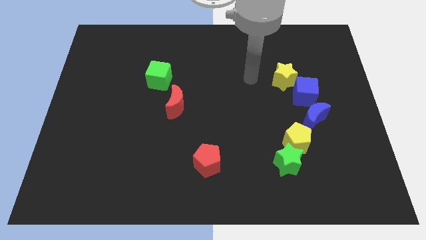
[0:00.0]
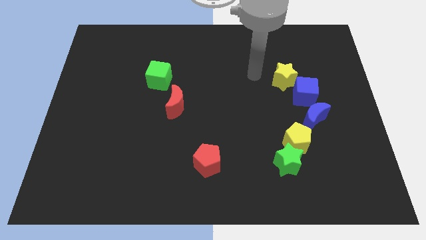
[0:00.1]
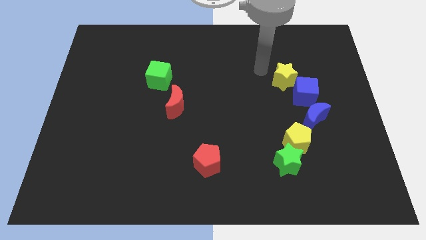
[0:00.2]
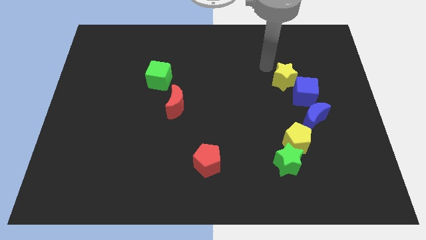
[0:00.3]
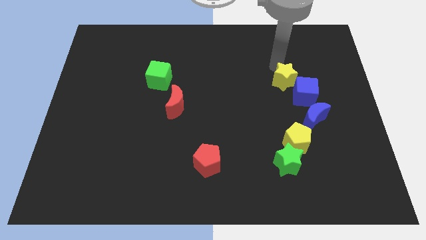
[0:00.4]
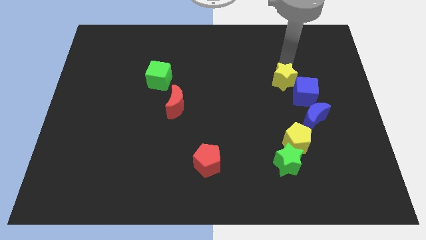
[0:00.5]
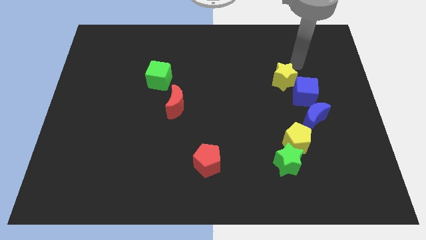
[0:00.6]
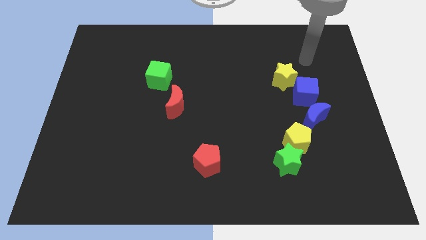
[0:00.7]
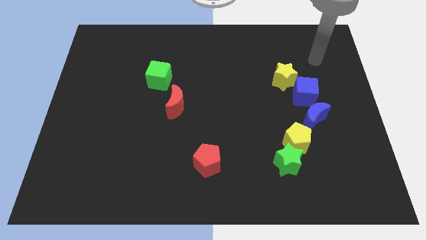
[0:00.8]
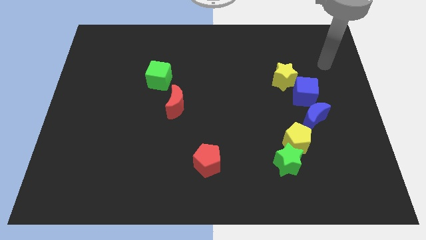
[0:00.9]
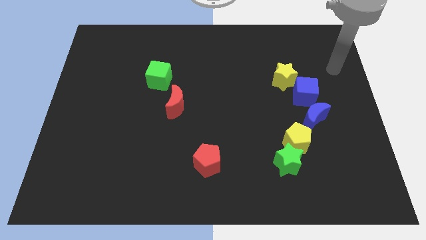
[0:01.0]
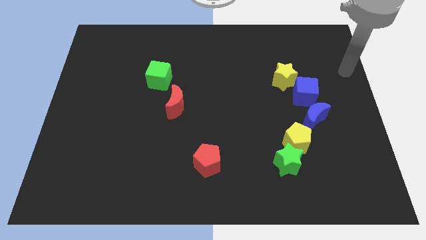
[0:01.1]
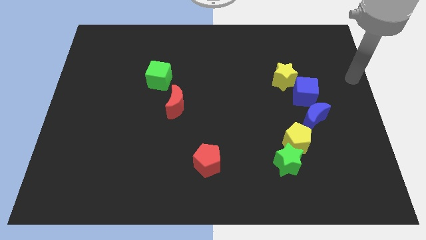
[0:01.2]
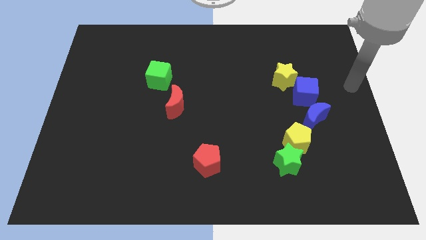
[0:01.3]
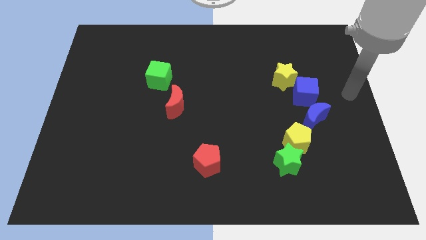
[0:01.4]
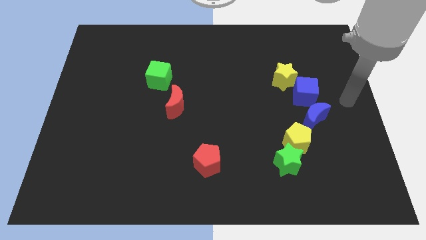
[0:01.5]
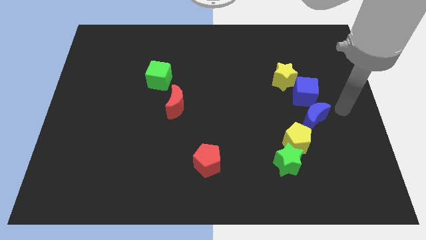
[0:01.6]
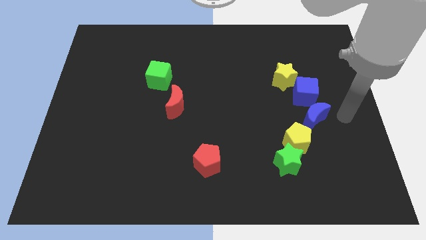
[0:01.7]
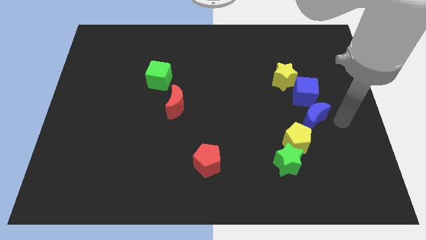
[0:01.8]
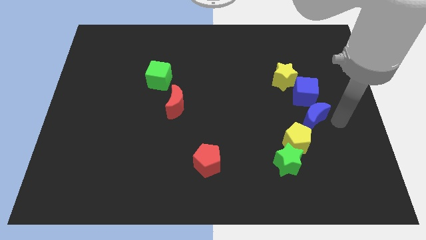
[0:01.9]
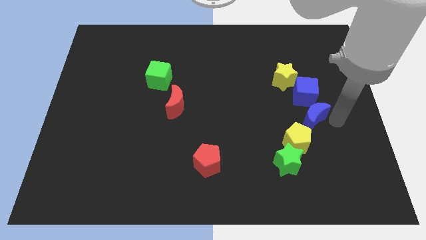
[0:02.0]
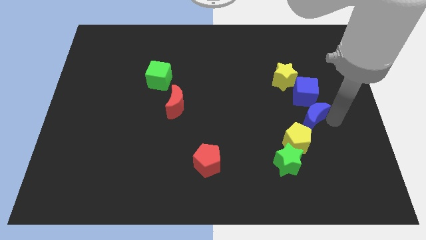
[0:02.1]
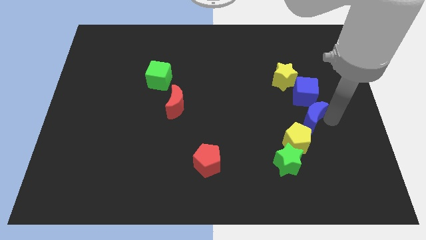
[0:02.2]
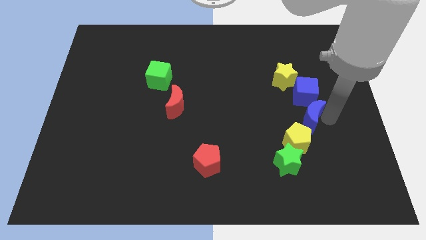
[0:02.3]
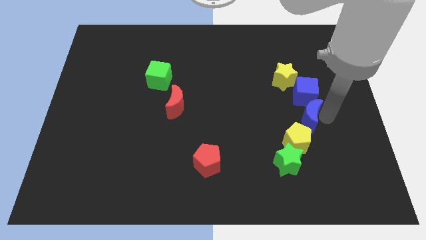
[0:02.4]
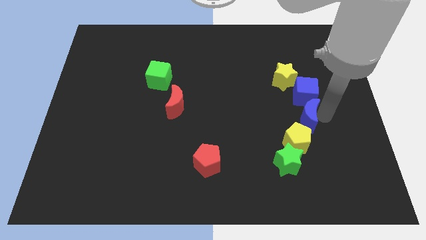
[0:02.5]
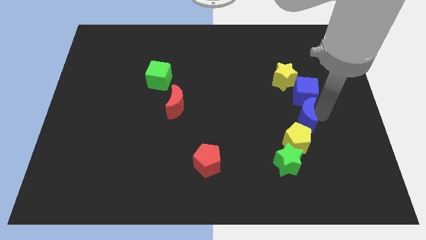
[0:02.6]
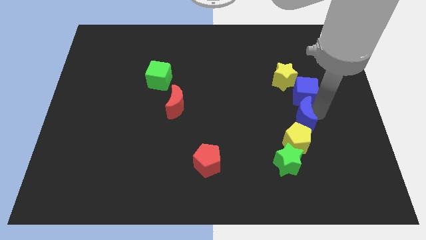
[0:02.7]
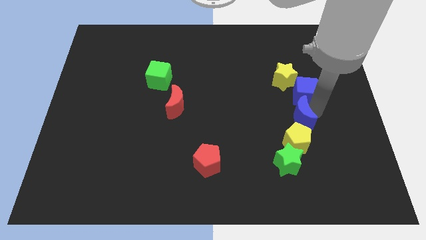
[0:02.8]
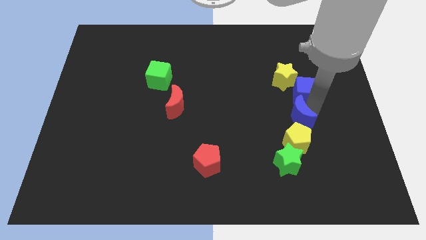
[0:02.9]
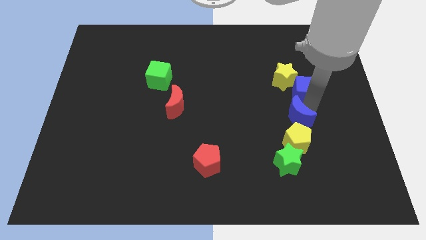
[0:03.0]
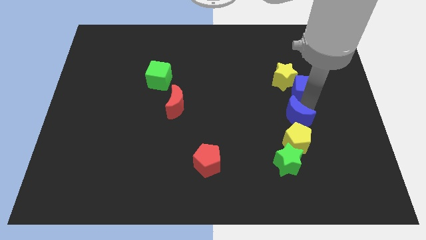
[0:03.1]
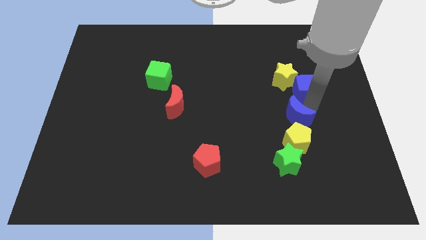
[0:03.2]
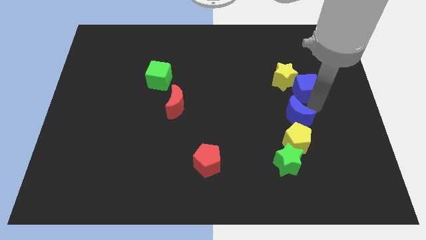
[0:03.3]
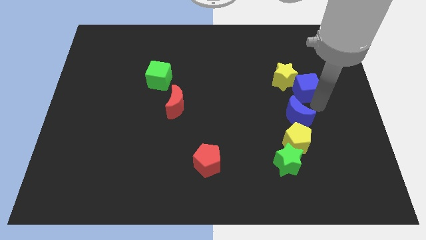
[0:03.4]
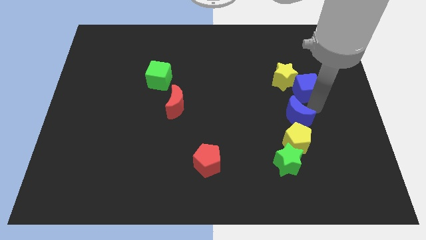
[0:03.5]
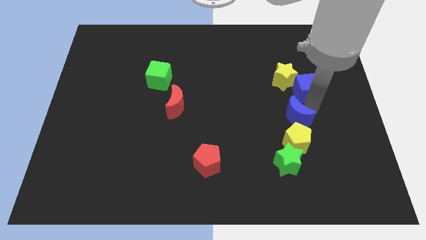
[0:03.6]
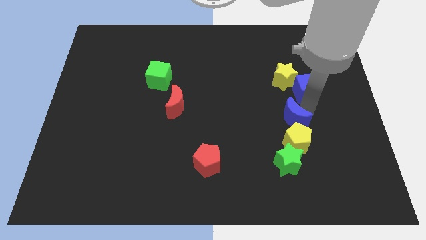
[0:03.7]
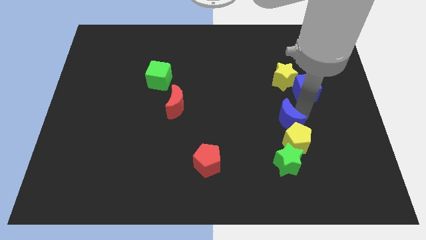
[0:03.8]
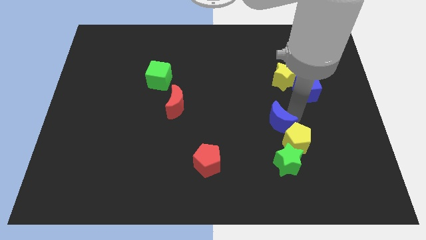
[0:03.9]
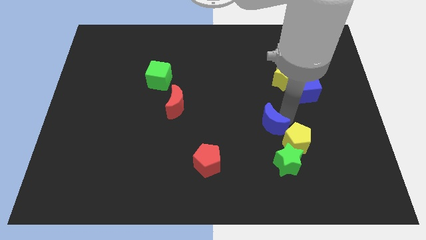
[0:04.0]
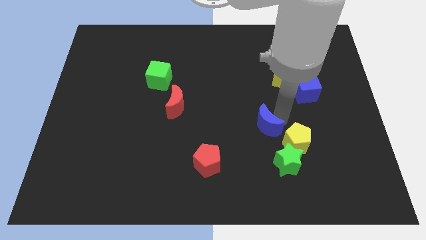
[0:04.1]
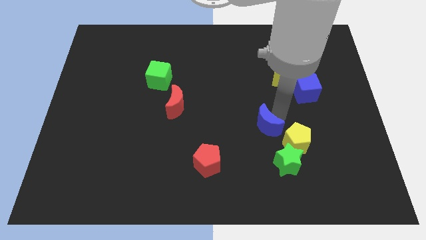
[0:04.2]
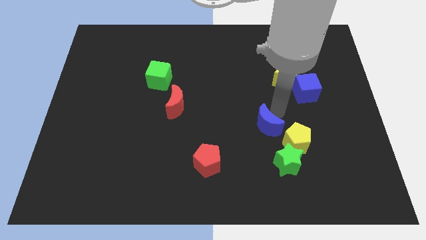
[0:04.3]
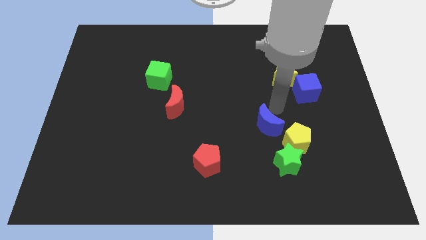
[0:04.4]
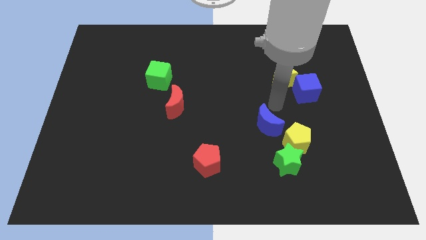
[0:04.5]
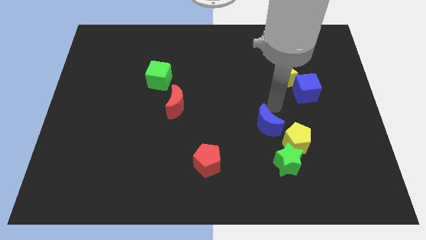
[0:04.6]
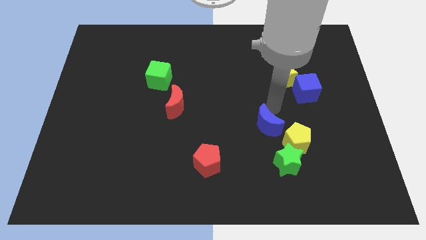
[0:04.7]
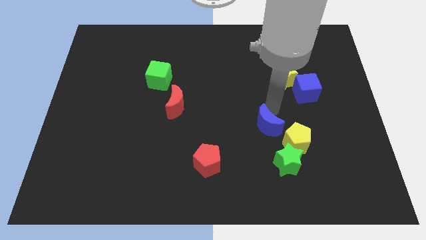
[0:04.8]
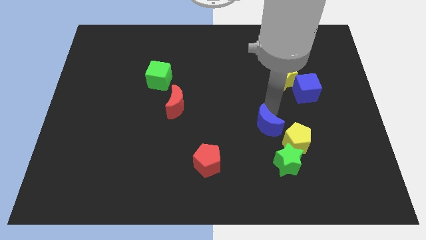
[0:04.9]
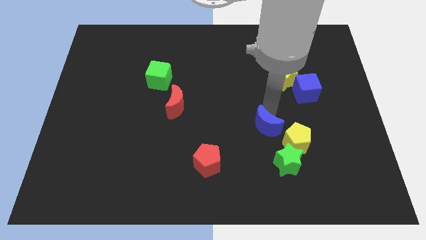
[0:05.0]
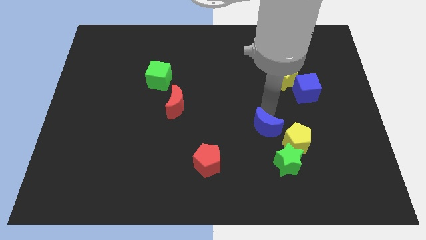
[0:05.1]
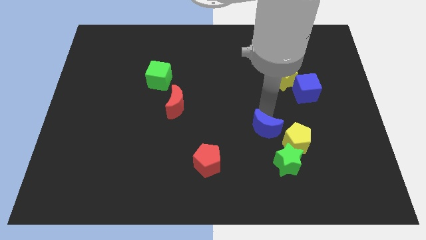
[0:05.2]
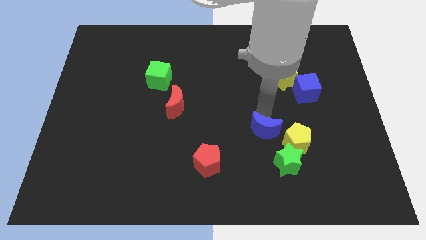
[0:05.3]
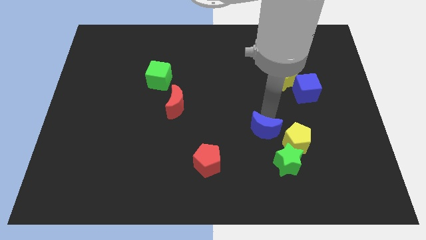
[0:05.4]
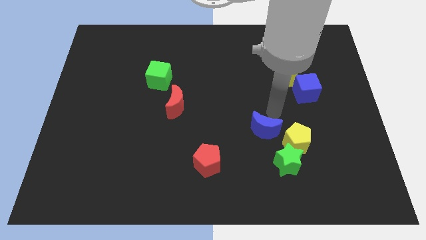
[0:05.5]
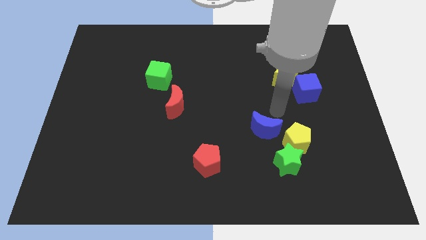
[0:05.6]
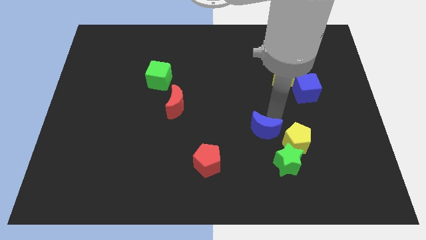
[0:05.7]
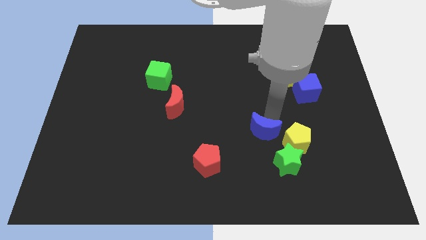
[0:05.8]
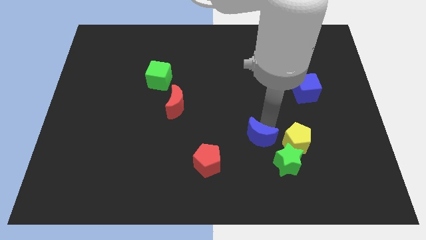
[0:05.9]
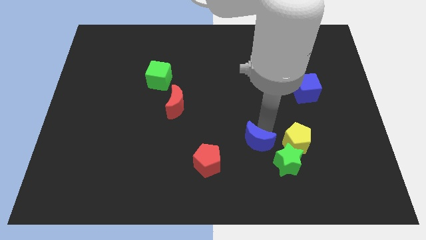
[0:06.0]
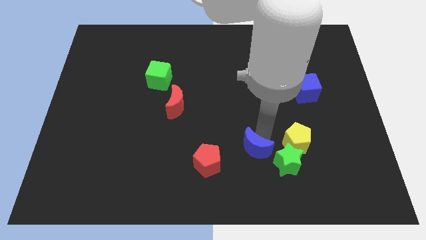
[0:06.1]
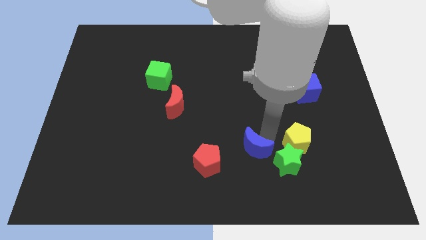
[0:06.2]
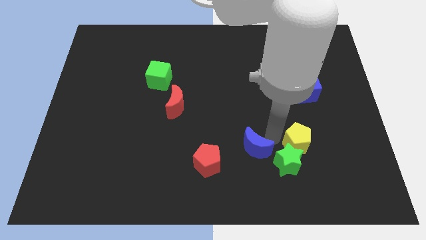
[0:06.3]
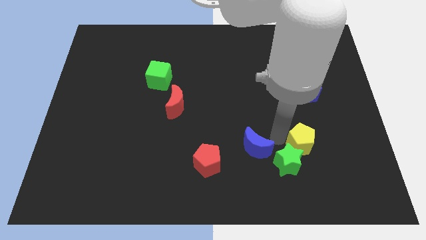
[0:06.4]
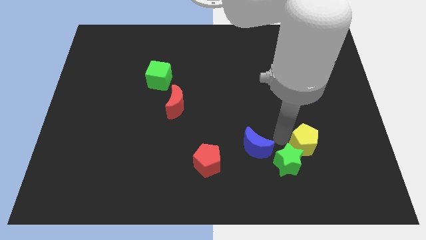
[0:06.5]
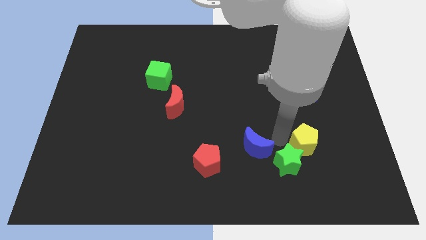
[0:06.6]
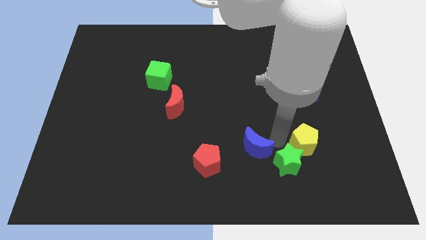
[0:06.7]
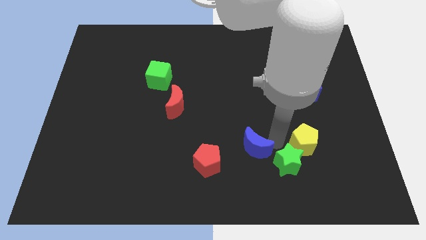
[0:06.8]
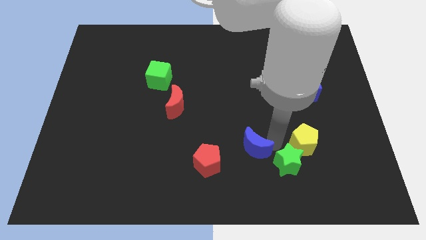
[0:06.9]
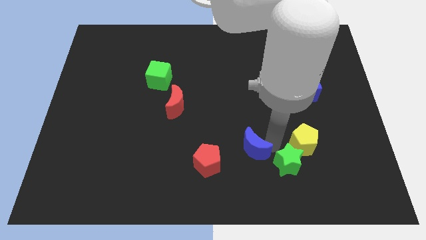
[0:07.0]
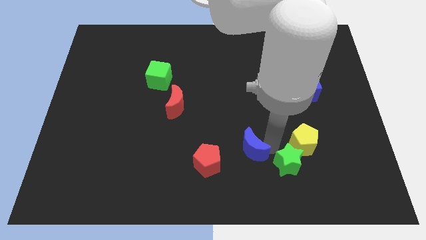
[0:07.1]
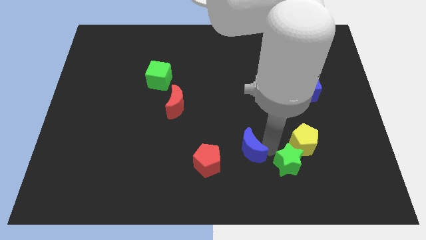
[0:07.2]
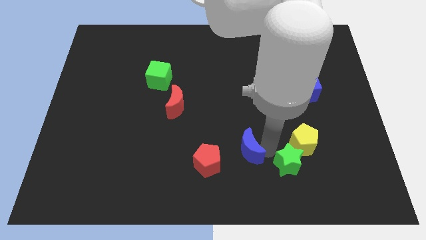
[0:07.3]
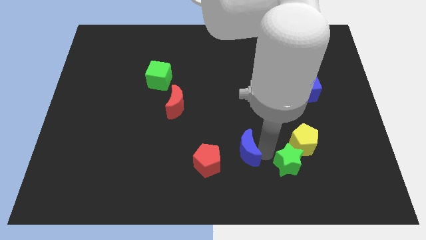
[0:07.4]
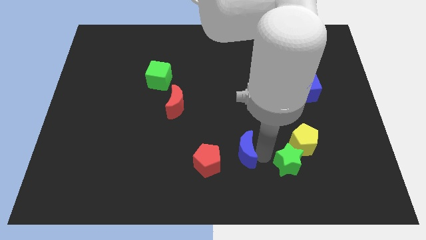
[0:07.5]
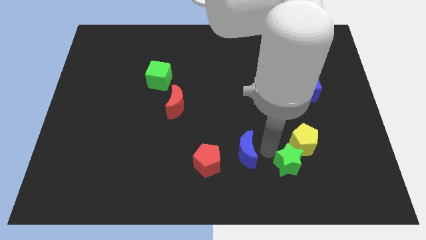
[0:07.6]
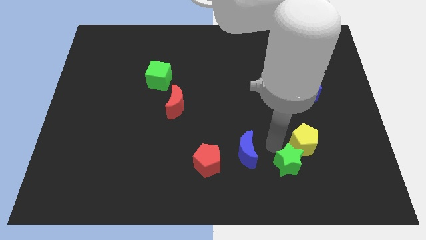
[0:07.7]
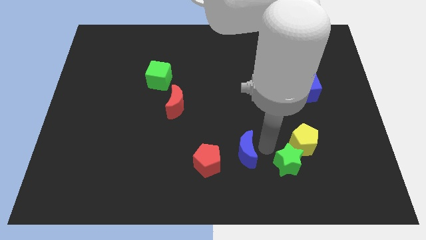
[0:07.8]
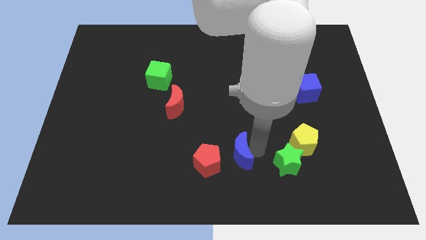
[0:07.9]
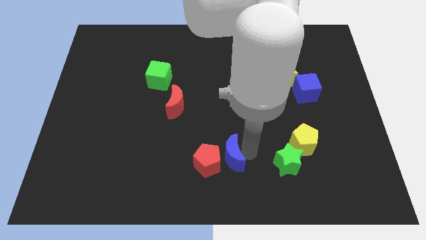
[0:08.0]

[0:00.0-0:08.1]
move the blue moon next to the red pentagon
